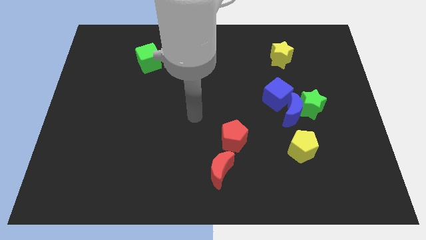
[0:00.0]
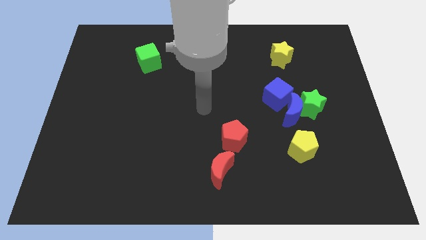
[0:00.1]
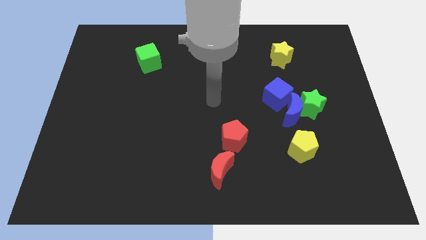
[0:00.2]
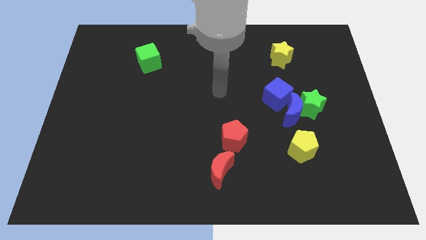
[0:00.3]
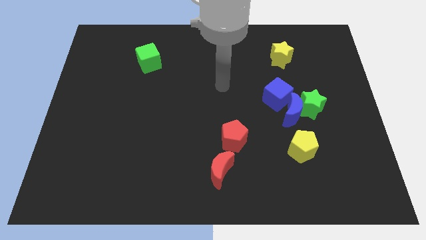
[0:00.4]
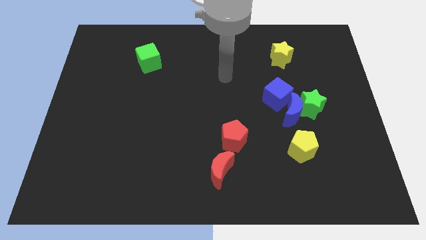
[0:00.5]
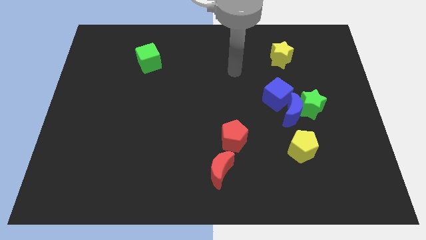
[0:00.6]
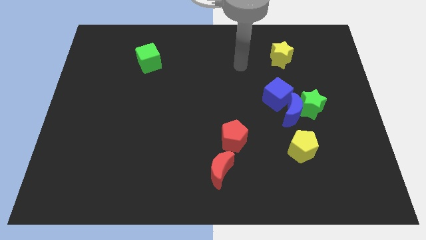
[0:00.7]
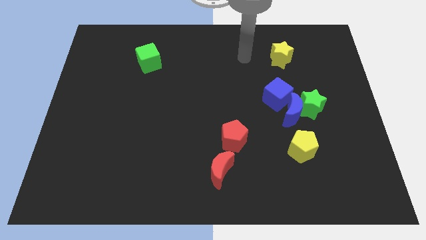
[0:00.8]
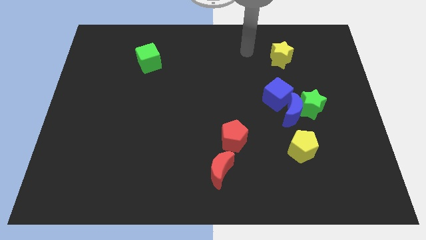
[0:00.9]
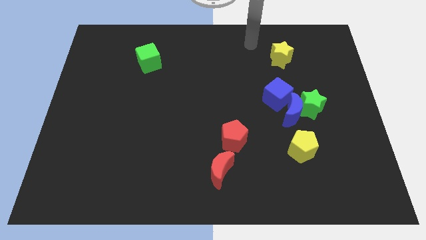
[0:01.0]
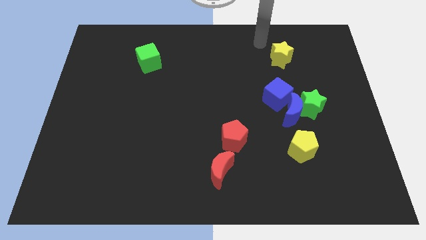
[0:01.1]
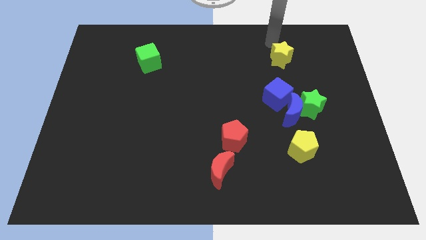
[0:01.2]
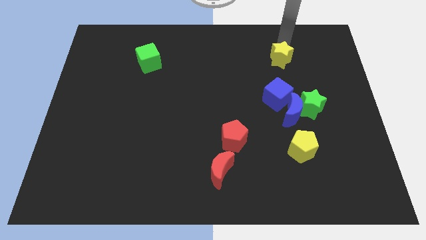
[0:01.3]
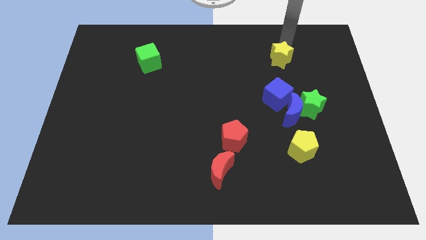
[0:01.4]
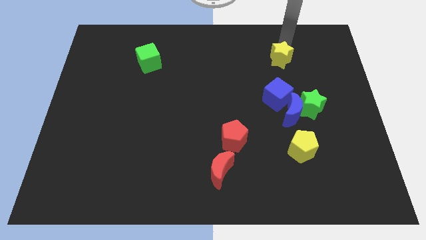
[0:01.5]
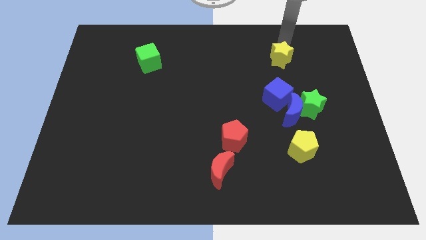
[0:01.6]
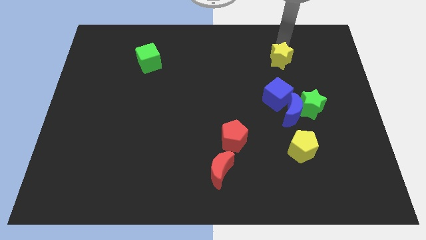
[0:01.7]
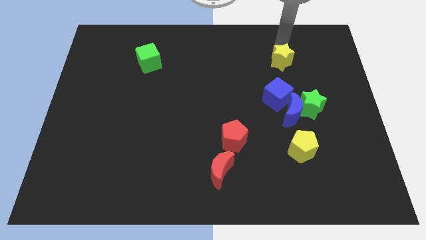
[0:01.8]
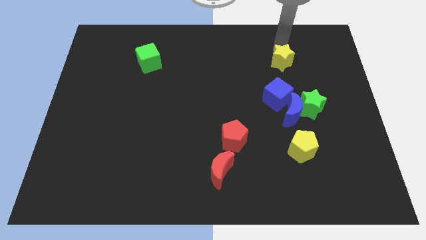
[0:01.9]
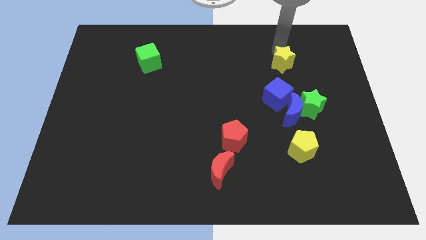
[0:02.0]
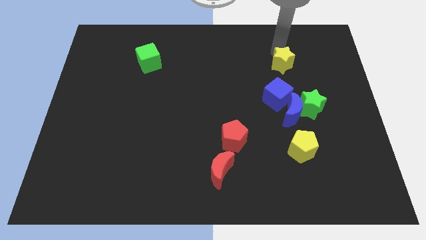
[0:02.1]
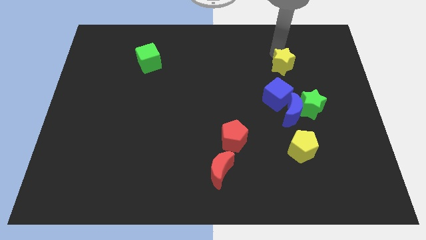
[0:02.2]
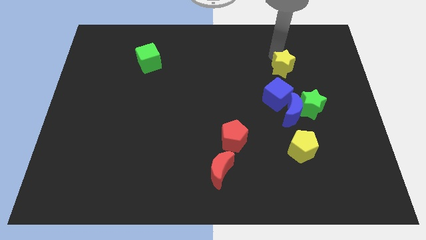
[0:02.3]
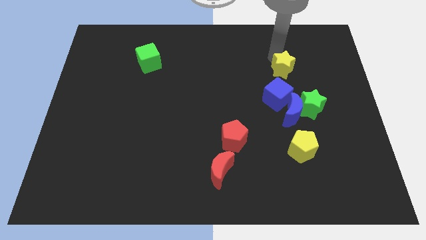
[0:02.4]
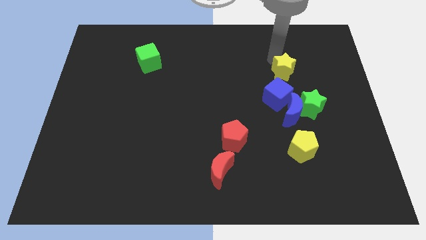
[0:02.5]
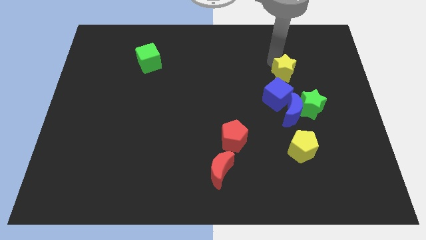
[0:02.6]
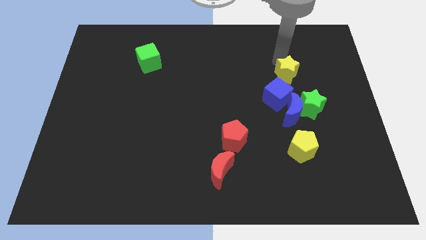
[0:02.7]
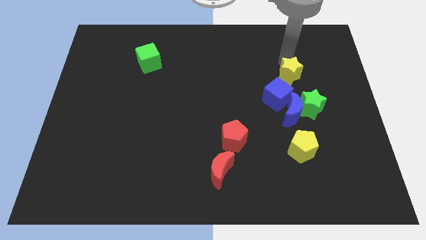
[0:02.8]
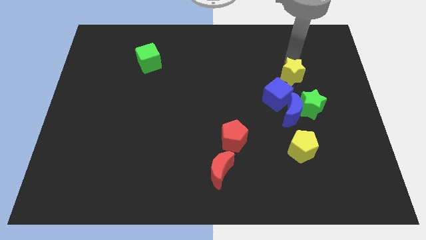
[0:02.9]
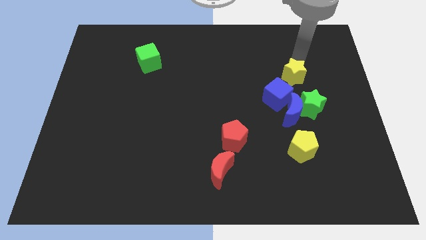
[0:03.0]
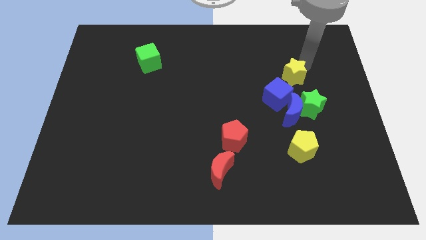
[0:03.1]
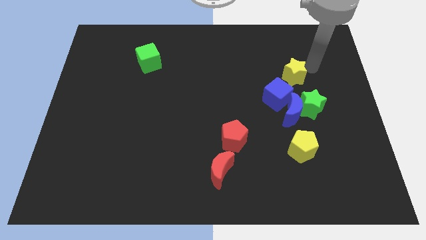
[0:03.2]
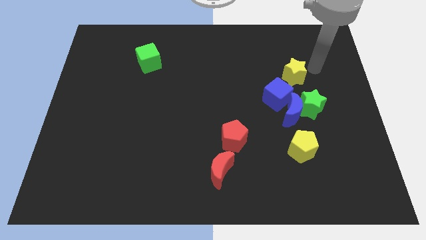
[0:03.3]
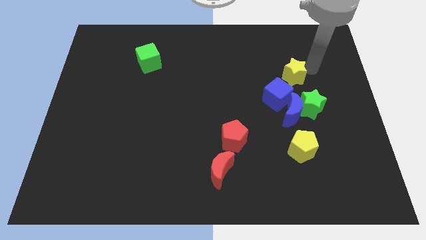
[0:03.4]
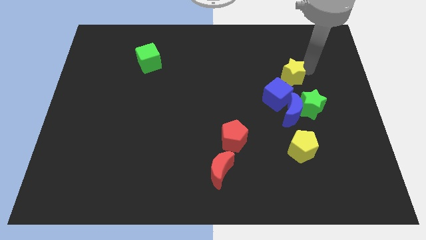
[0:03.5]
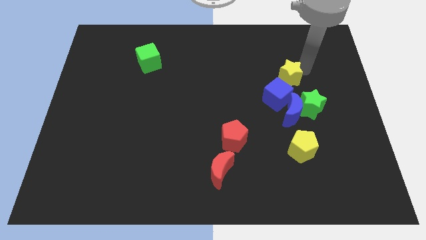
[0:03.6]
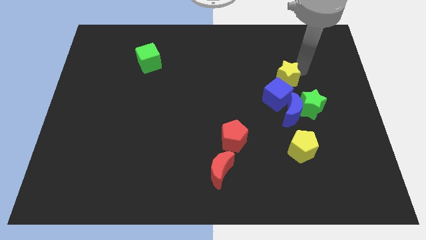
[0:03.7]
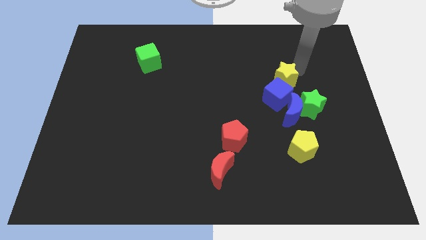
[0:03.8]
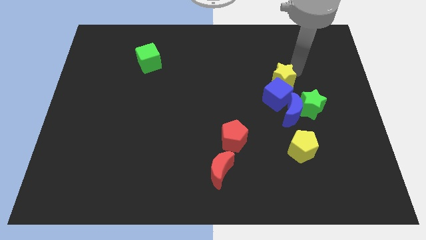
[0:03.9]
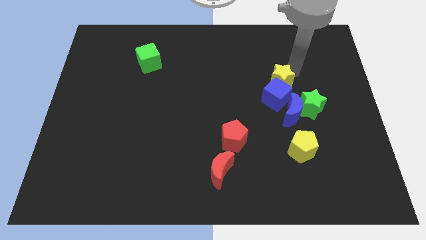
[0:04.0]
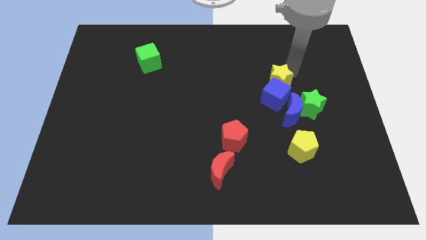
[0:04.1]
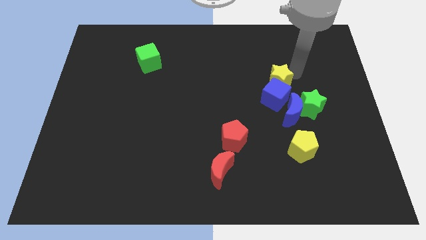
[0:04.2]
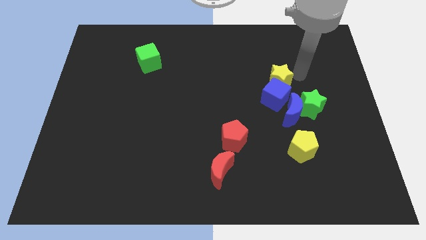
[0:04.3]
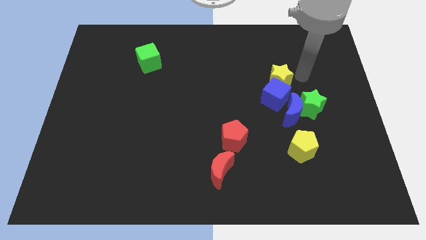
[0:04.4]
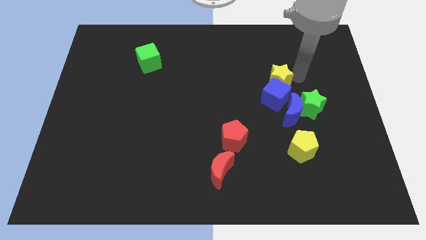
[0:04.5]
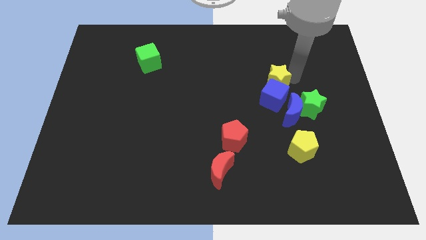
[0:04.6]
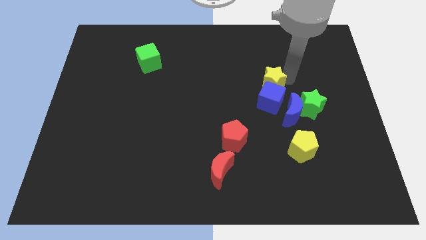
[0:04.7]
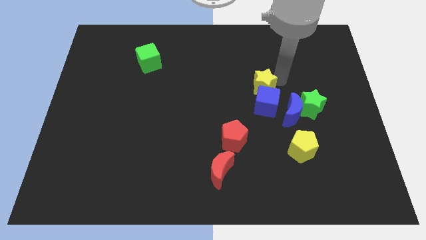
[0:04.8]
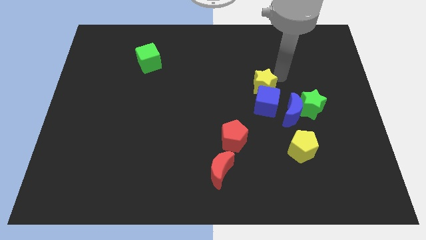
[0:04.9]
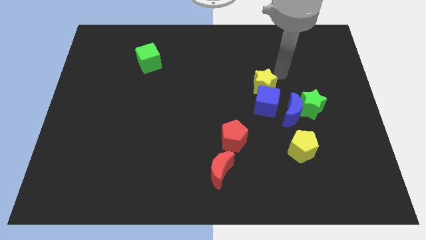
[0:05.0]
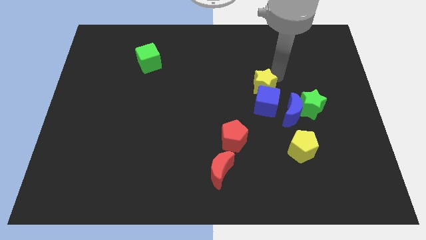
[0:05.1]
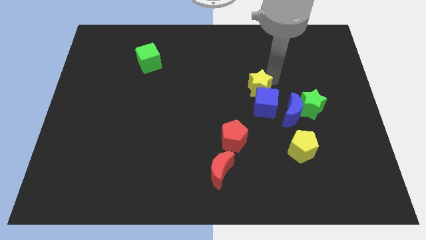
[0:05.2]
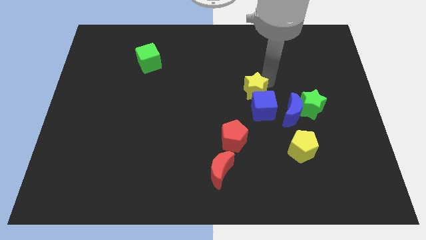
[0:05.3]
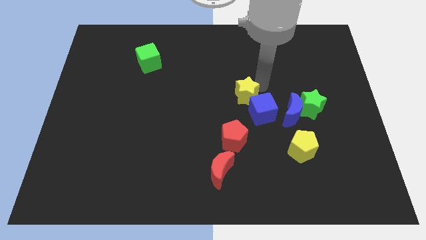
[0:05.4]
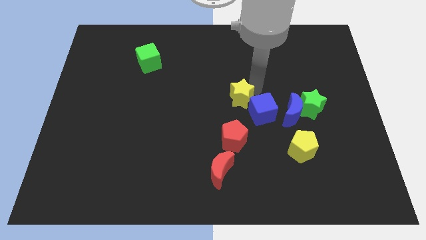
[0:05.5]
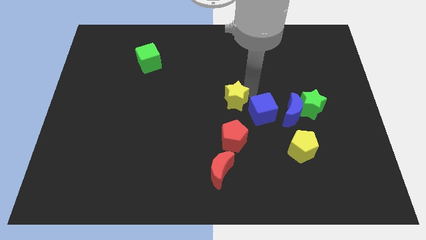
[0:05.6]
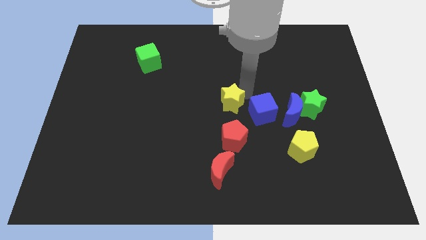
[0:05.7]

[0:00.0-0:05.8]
move the yellow star down and to the left diagonally

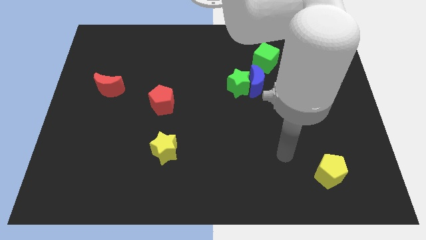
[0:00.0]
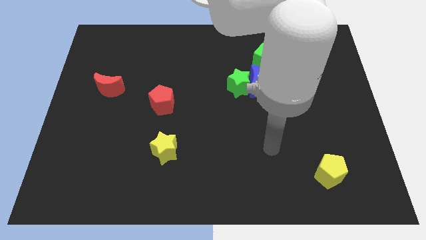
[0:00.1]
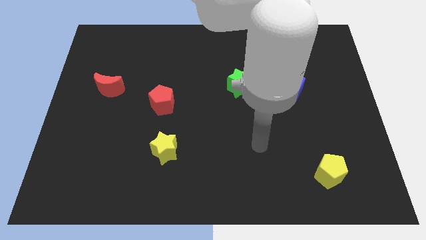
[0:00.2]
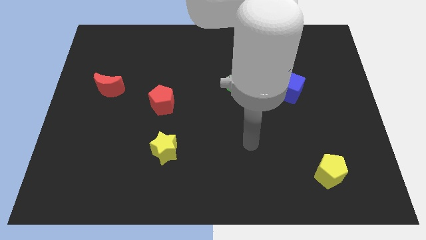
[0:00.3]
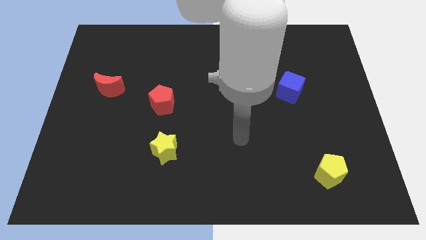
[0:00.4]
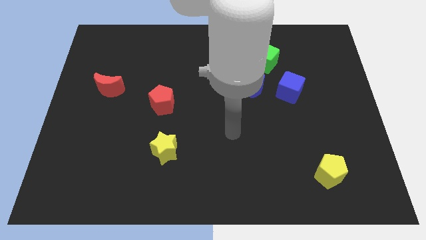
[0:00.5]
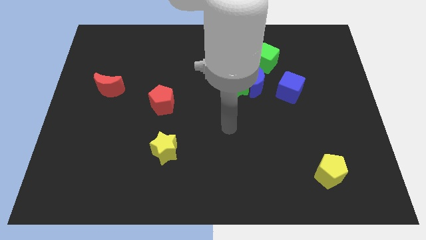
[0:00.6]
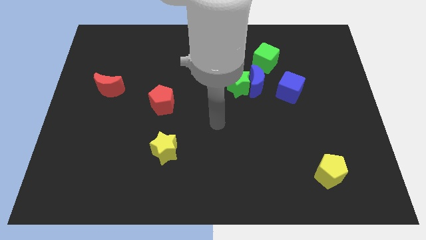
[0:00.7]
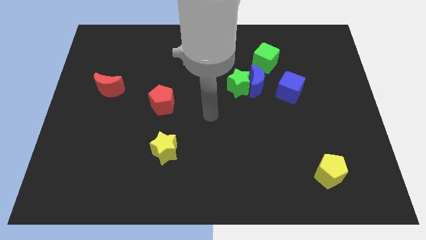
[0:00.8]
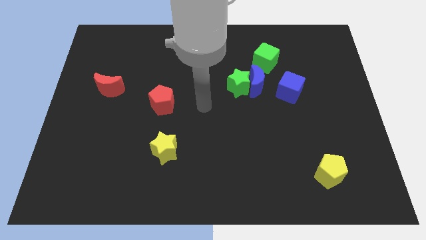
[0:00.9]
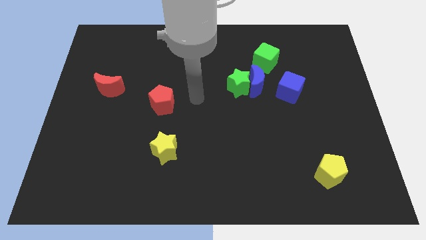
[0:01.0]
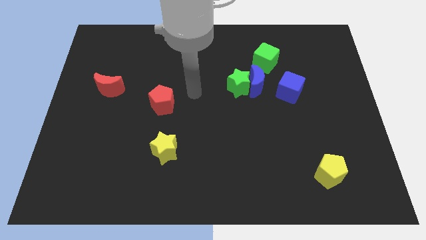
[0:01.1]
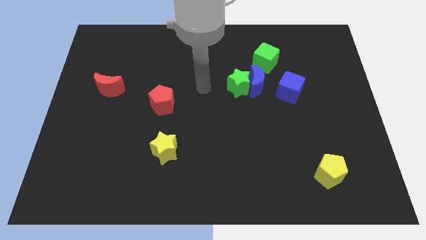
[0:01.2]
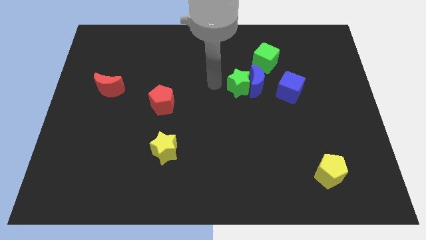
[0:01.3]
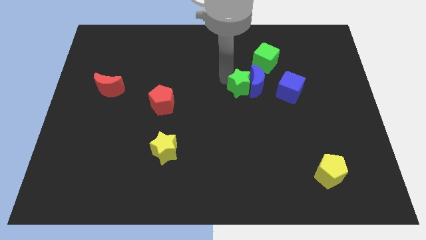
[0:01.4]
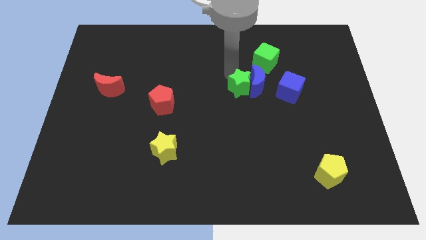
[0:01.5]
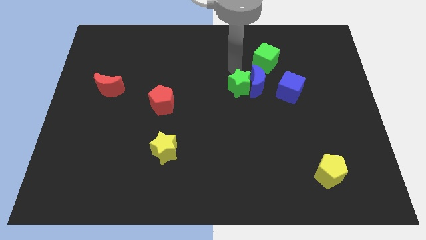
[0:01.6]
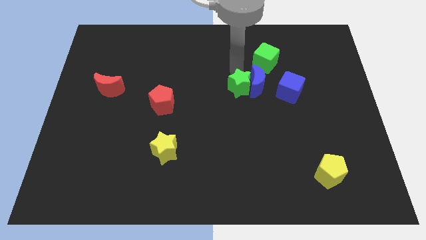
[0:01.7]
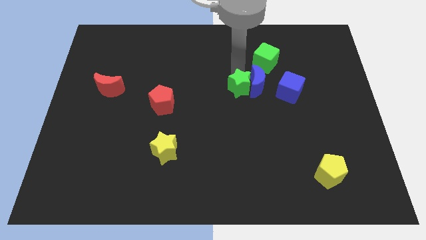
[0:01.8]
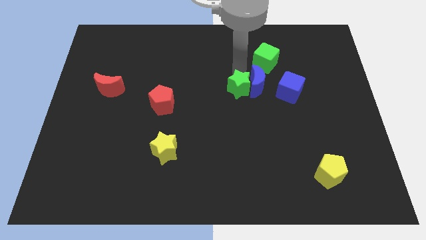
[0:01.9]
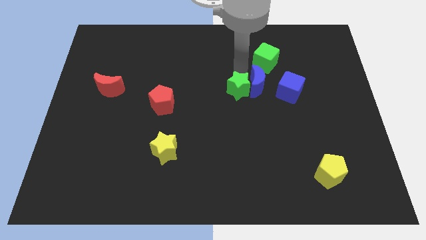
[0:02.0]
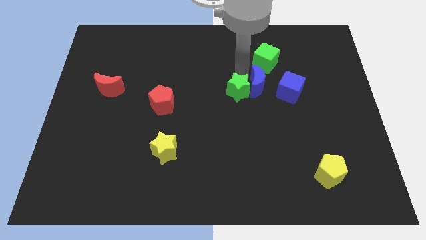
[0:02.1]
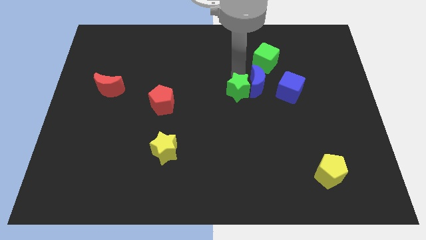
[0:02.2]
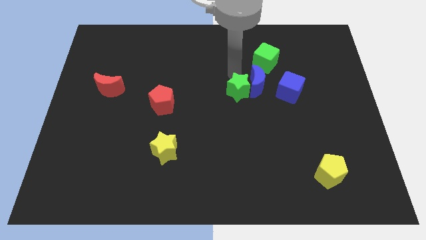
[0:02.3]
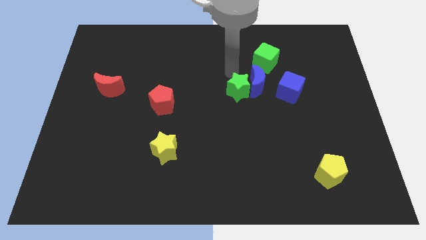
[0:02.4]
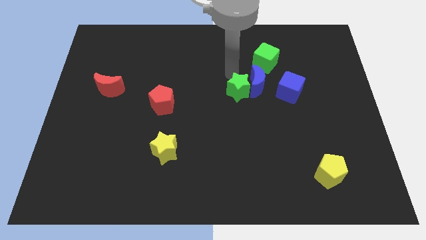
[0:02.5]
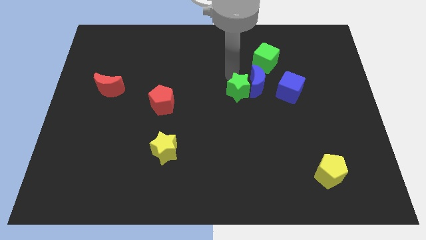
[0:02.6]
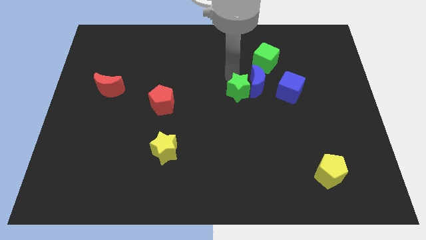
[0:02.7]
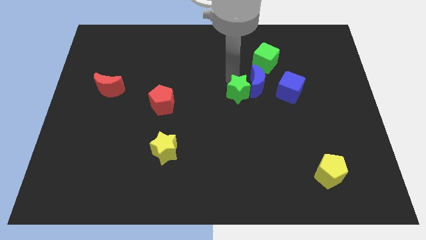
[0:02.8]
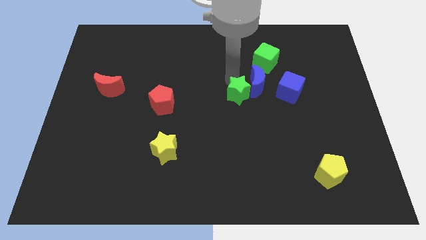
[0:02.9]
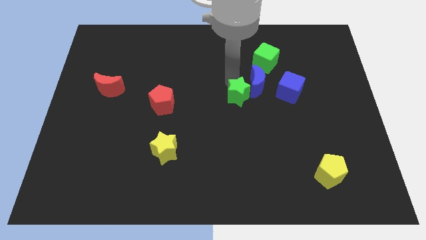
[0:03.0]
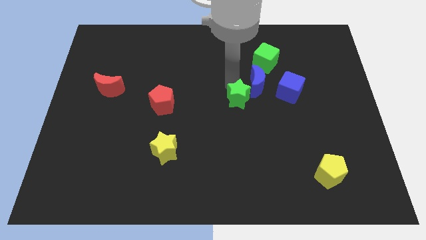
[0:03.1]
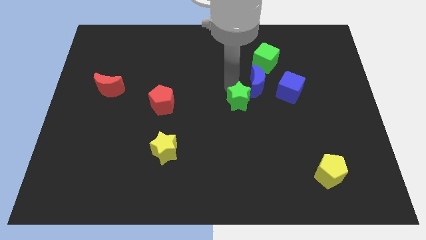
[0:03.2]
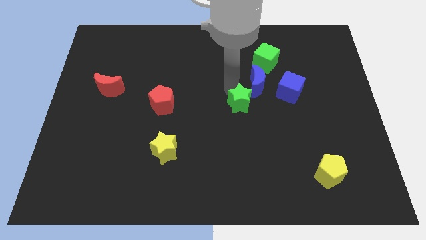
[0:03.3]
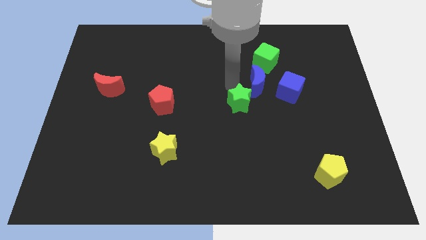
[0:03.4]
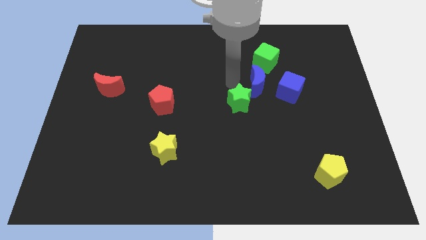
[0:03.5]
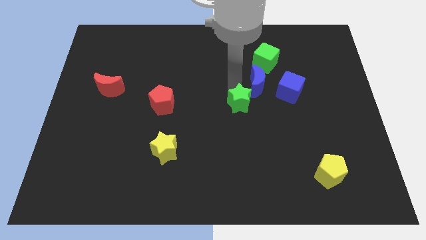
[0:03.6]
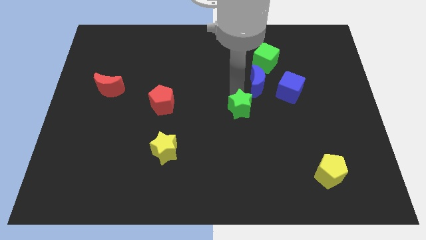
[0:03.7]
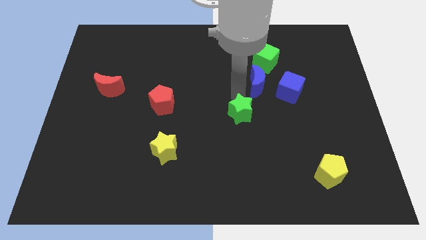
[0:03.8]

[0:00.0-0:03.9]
push the green star a little bit down
